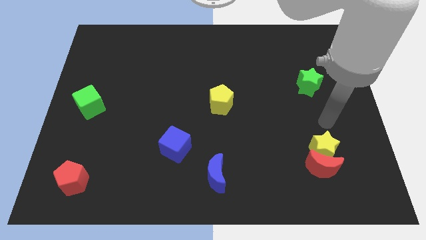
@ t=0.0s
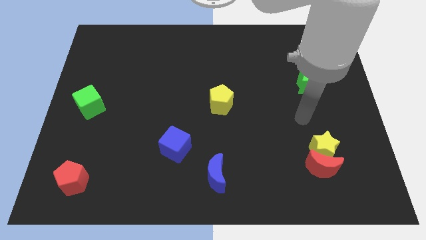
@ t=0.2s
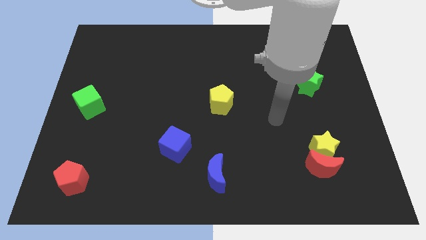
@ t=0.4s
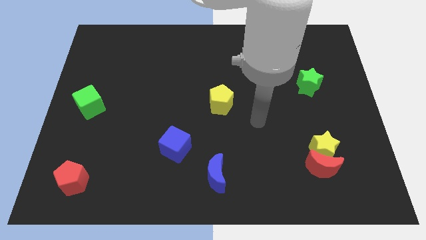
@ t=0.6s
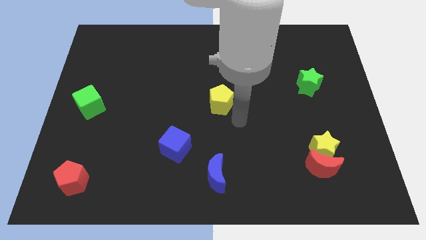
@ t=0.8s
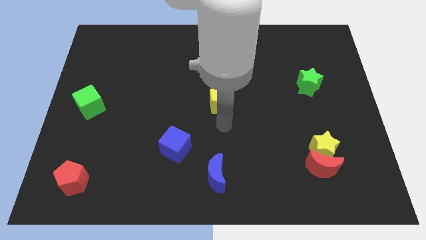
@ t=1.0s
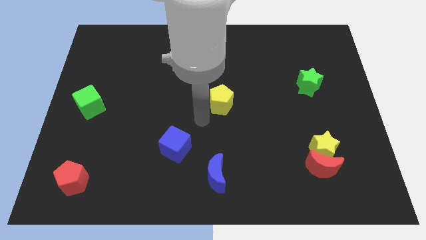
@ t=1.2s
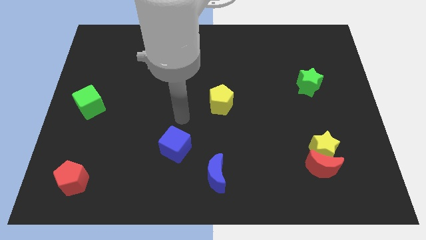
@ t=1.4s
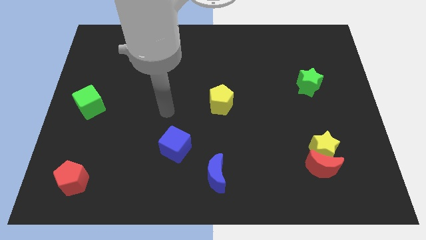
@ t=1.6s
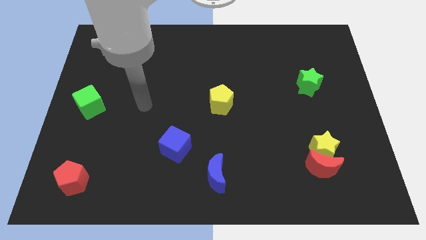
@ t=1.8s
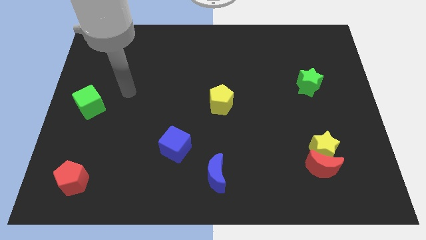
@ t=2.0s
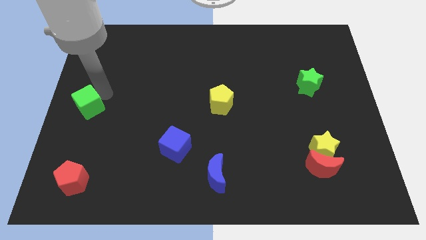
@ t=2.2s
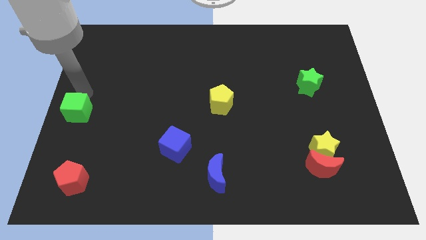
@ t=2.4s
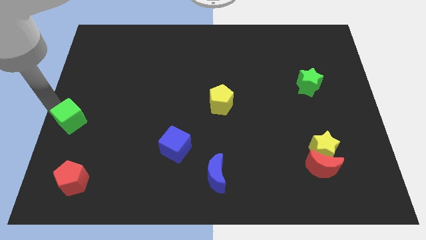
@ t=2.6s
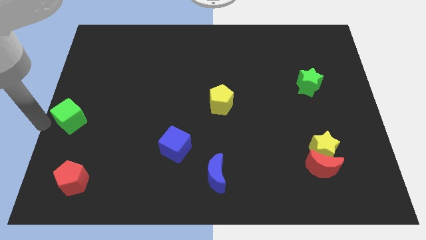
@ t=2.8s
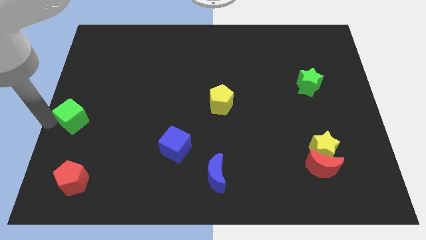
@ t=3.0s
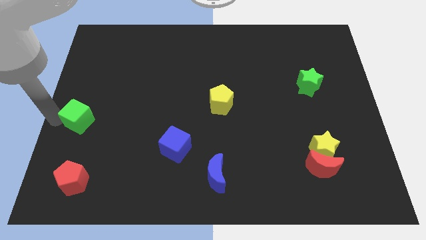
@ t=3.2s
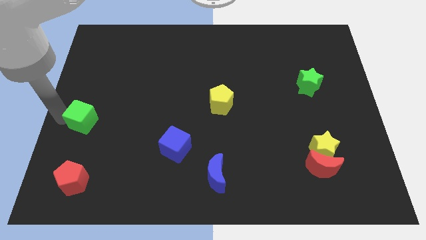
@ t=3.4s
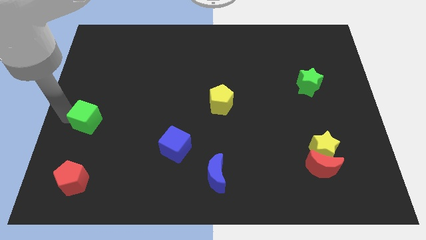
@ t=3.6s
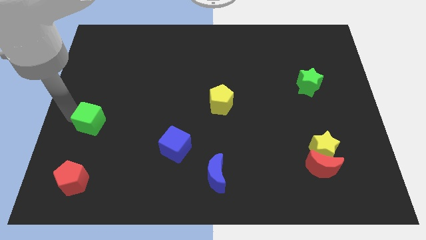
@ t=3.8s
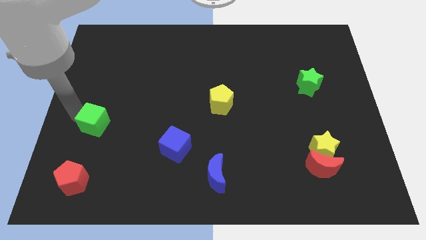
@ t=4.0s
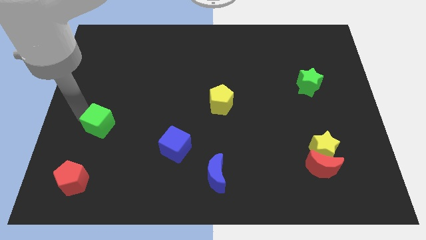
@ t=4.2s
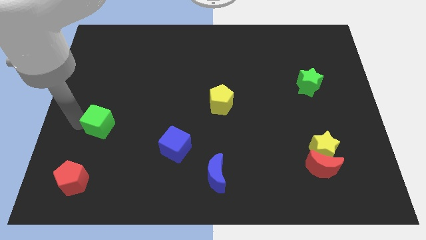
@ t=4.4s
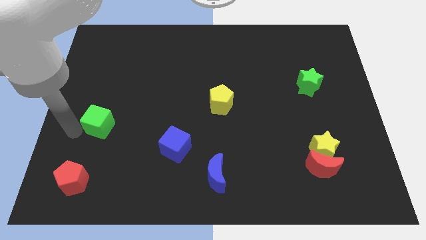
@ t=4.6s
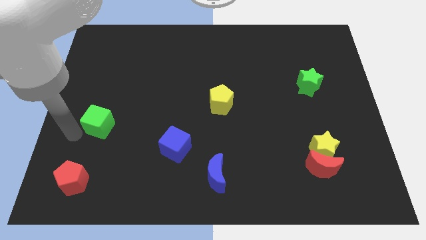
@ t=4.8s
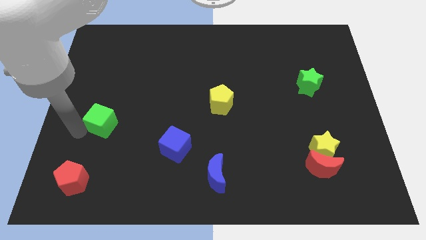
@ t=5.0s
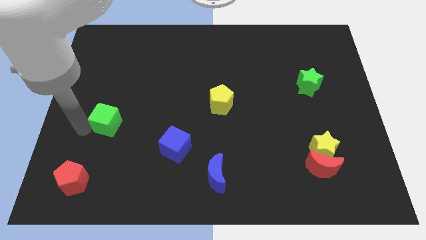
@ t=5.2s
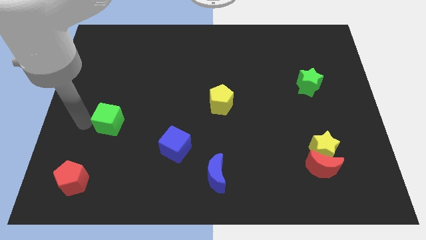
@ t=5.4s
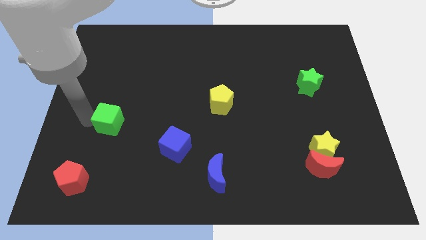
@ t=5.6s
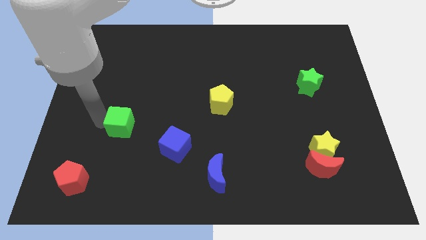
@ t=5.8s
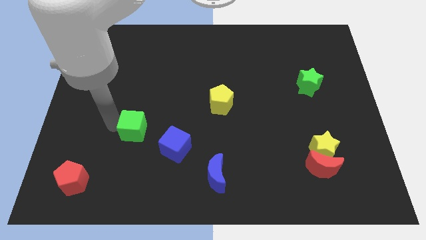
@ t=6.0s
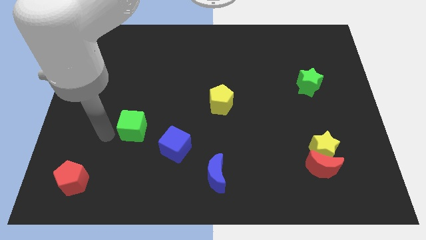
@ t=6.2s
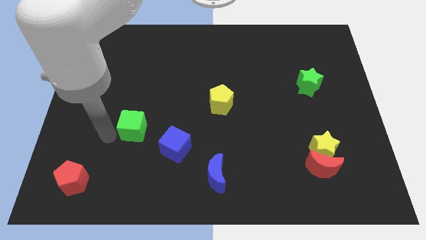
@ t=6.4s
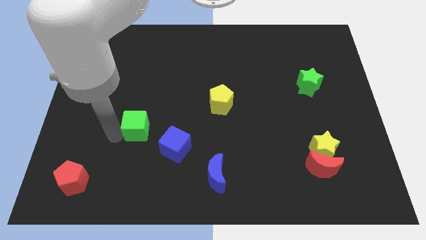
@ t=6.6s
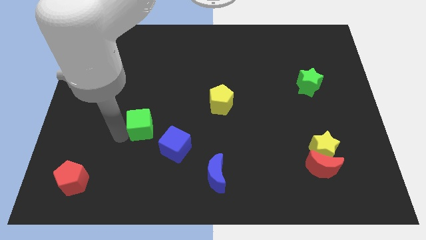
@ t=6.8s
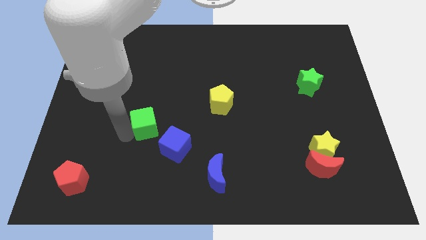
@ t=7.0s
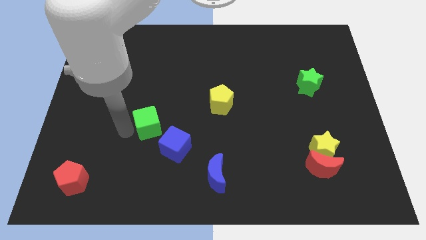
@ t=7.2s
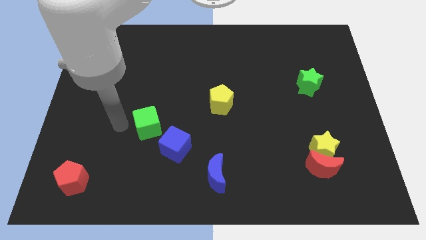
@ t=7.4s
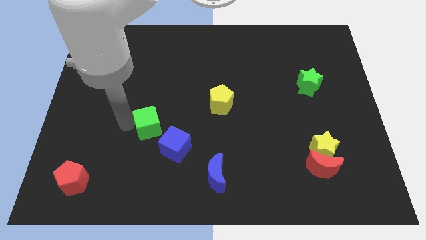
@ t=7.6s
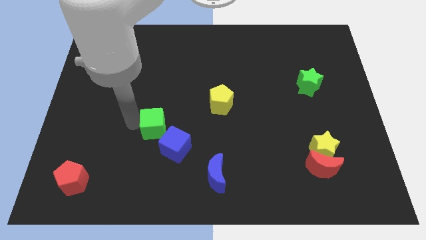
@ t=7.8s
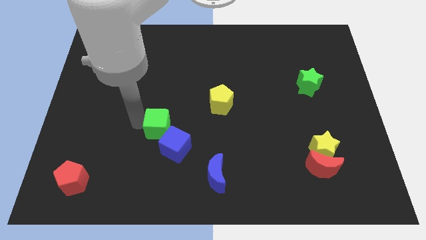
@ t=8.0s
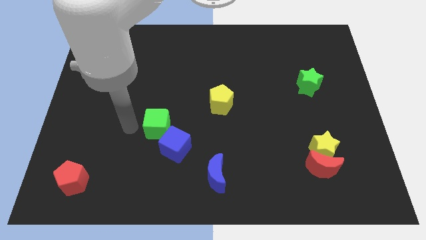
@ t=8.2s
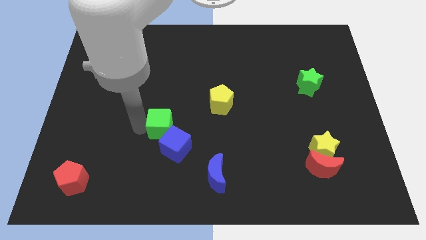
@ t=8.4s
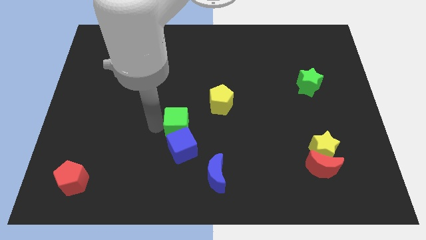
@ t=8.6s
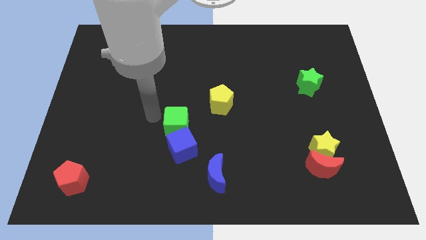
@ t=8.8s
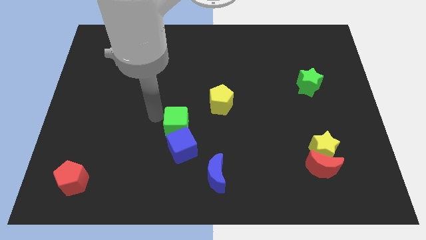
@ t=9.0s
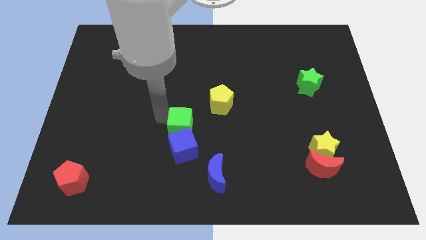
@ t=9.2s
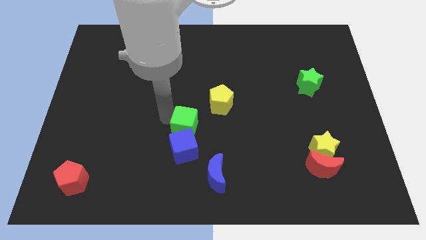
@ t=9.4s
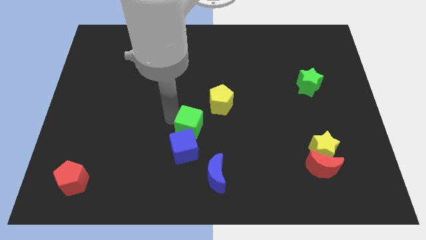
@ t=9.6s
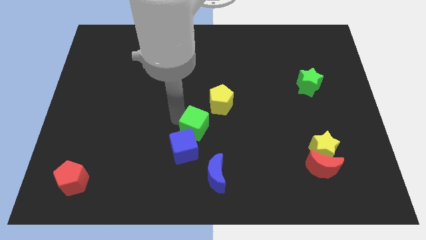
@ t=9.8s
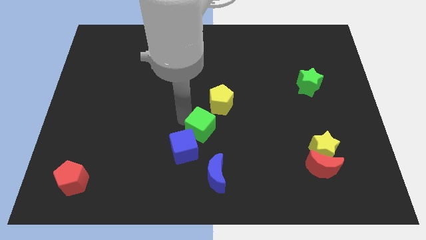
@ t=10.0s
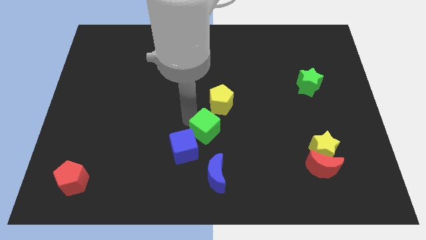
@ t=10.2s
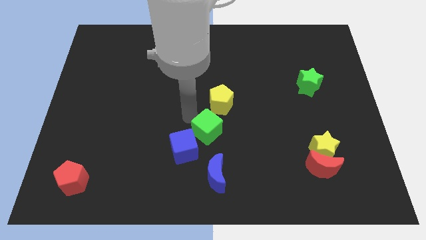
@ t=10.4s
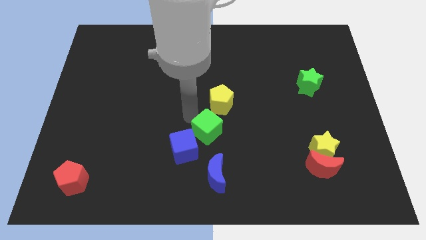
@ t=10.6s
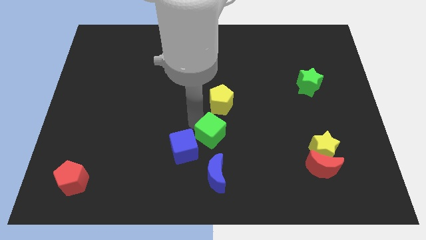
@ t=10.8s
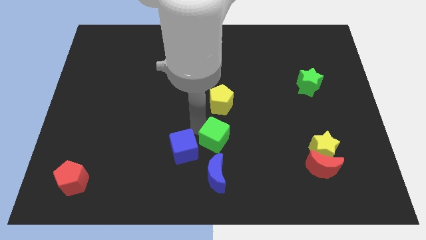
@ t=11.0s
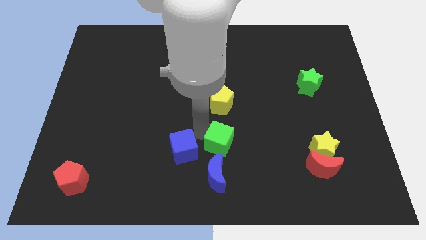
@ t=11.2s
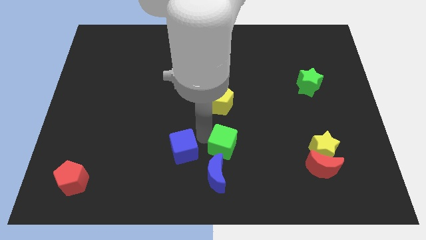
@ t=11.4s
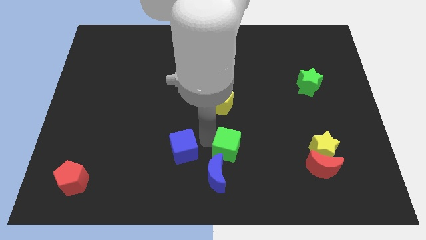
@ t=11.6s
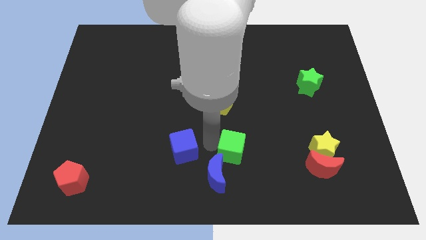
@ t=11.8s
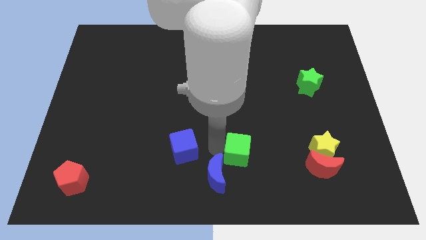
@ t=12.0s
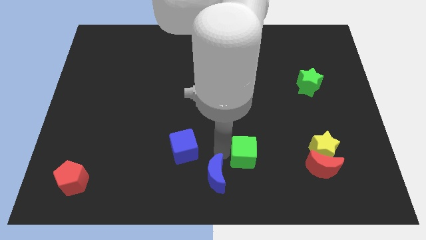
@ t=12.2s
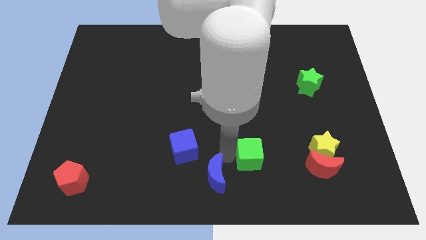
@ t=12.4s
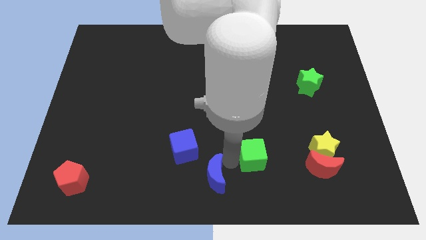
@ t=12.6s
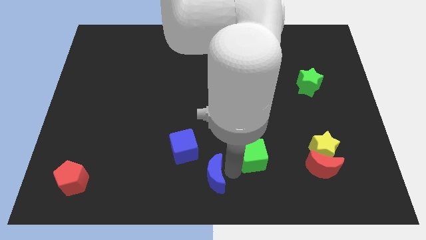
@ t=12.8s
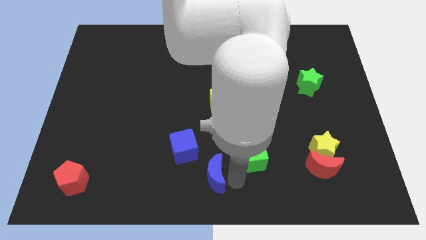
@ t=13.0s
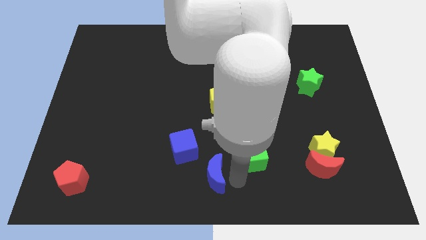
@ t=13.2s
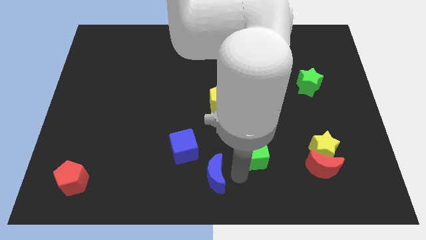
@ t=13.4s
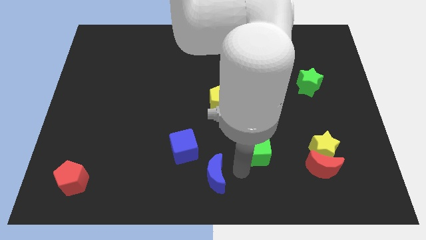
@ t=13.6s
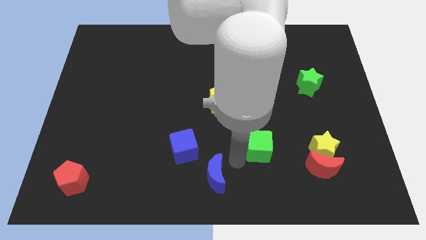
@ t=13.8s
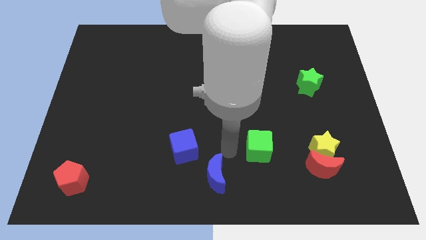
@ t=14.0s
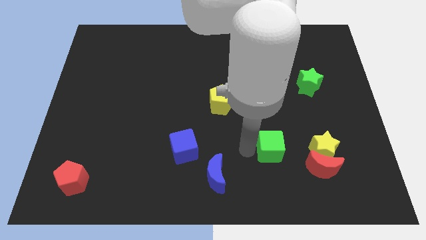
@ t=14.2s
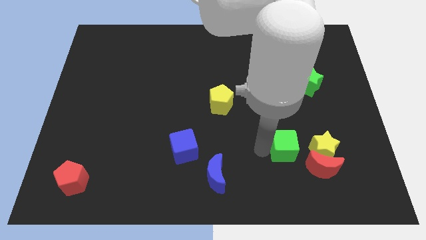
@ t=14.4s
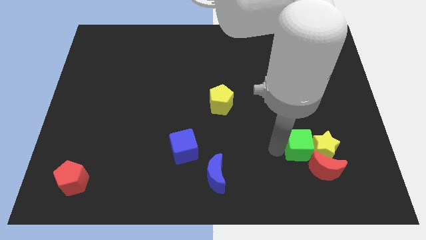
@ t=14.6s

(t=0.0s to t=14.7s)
put the green cube close to the yellow star
